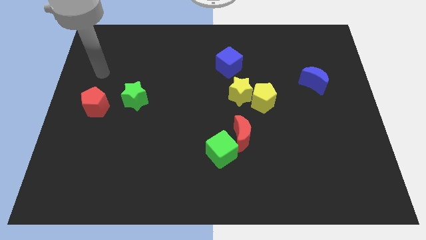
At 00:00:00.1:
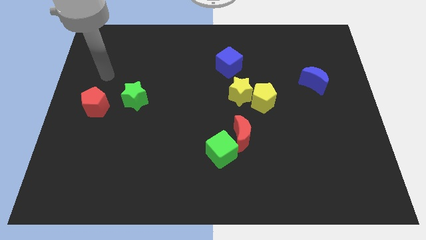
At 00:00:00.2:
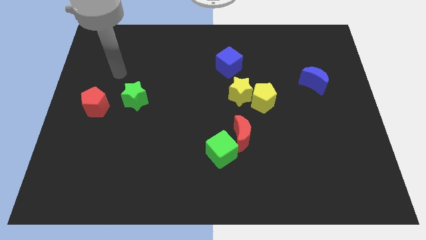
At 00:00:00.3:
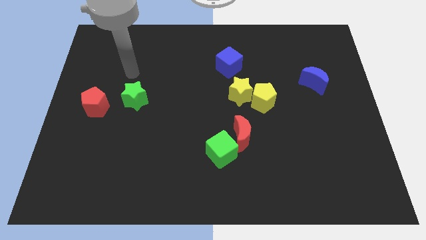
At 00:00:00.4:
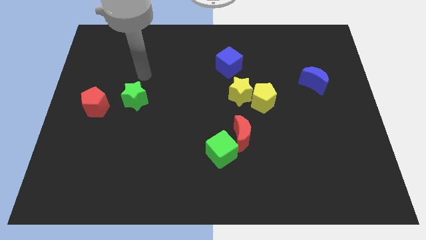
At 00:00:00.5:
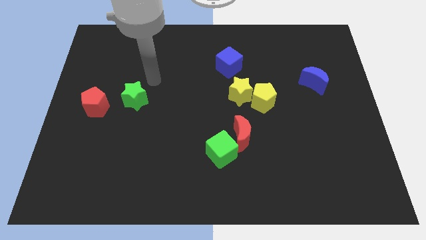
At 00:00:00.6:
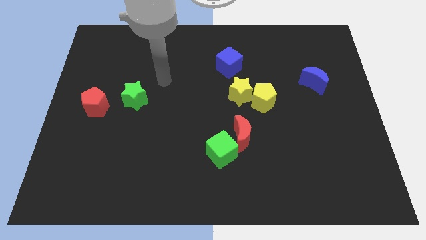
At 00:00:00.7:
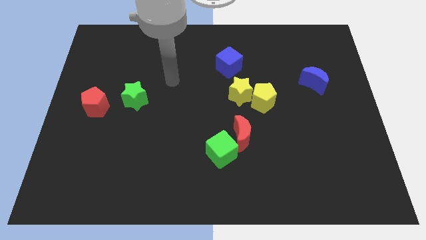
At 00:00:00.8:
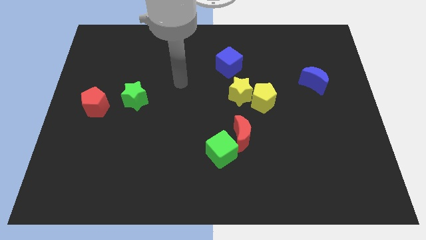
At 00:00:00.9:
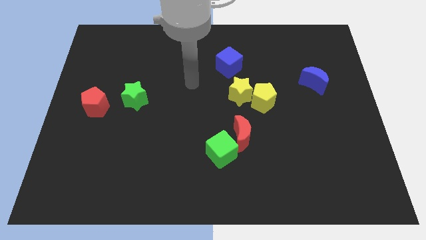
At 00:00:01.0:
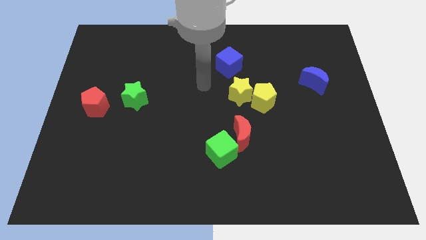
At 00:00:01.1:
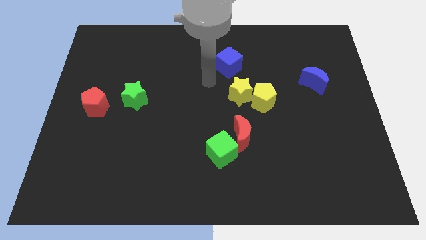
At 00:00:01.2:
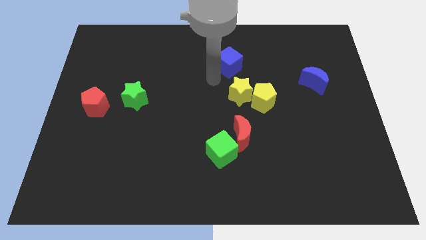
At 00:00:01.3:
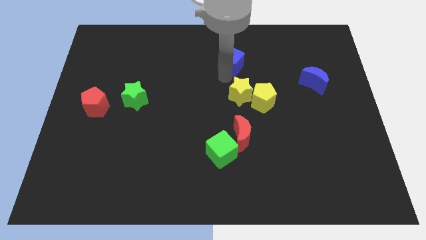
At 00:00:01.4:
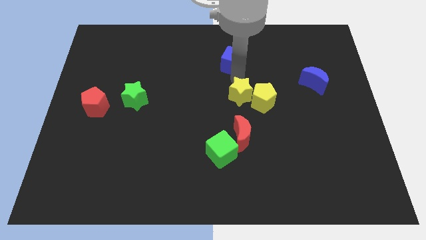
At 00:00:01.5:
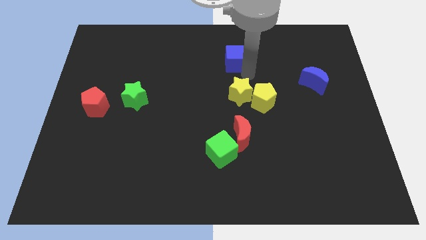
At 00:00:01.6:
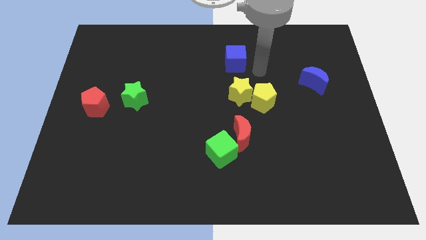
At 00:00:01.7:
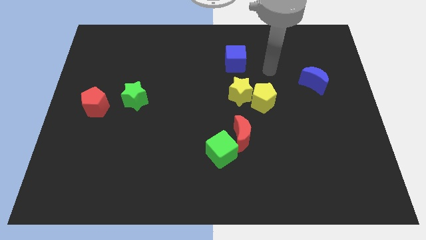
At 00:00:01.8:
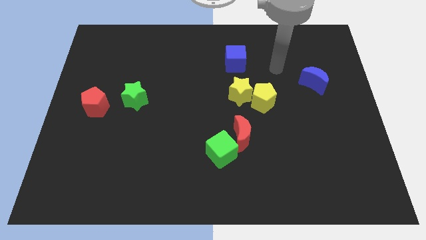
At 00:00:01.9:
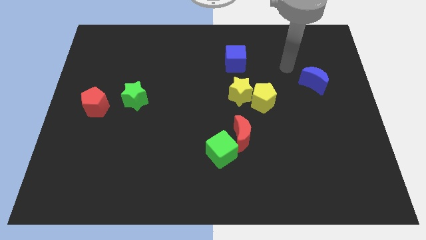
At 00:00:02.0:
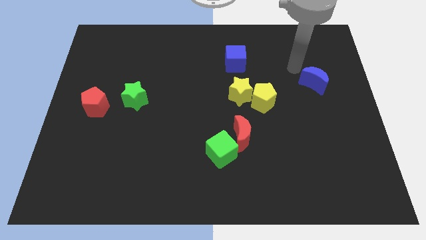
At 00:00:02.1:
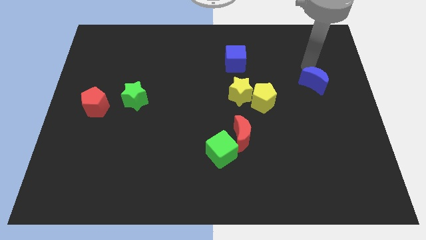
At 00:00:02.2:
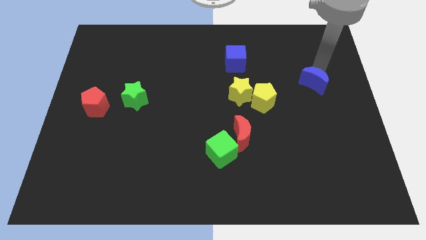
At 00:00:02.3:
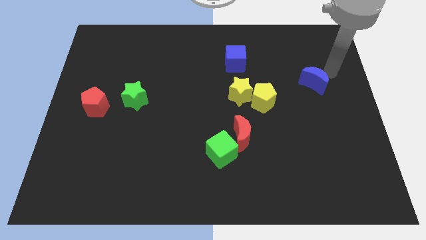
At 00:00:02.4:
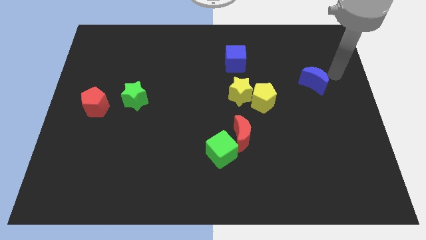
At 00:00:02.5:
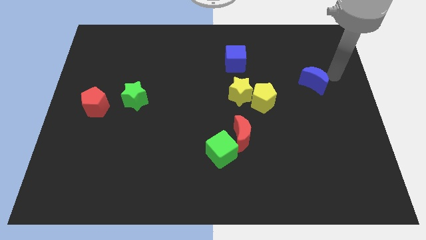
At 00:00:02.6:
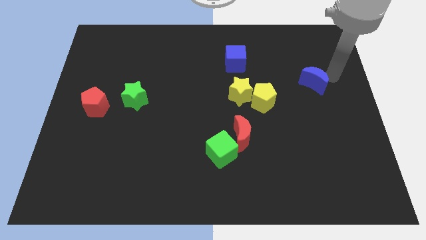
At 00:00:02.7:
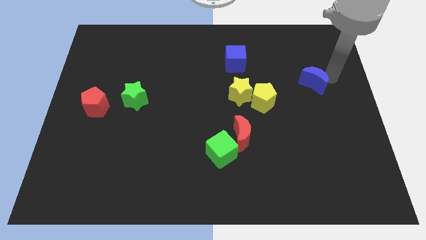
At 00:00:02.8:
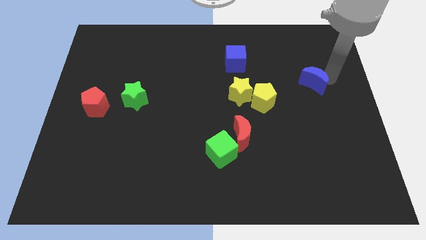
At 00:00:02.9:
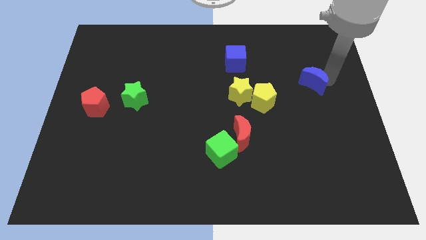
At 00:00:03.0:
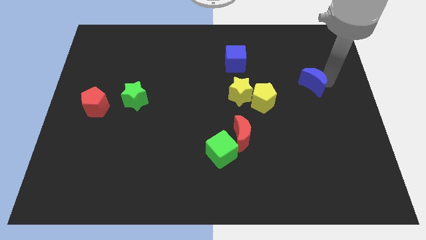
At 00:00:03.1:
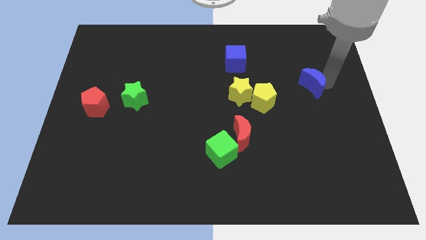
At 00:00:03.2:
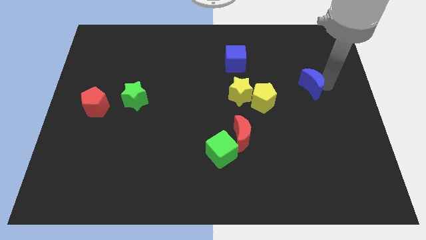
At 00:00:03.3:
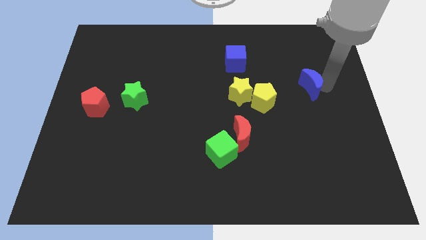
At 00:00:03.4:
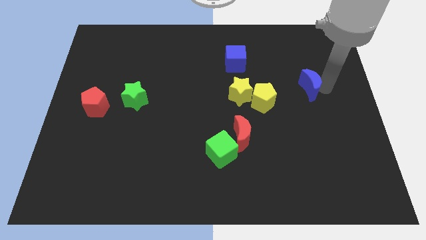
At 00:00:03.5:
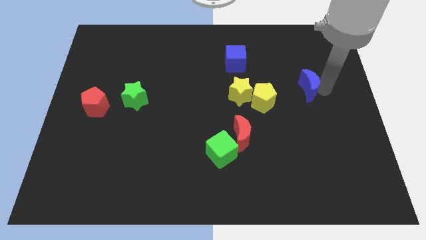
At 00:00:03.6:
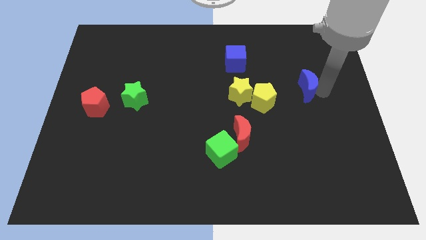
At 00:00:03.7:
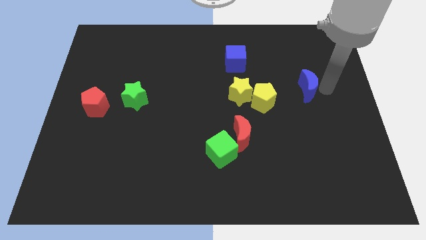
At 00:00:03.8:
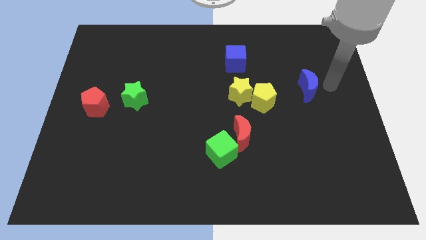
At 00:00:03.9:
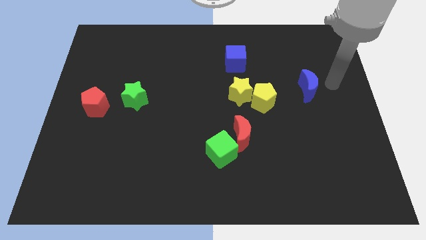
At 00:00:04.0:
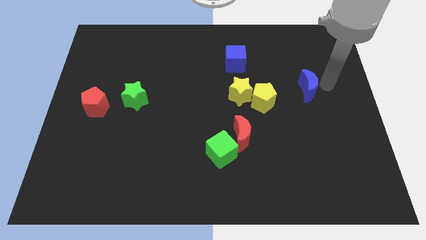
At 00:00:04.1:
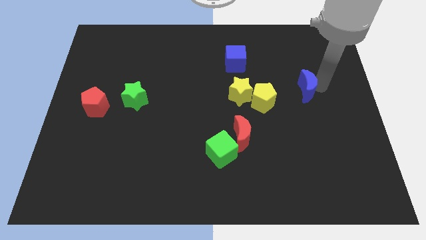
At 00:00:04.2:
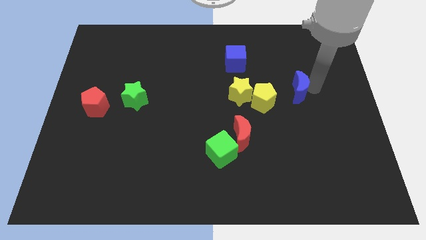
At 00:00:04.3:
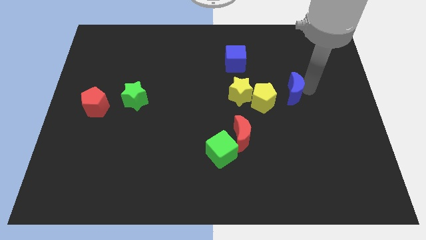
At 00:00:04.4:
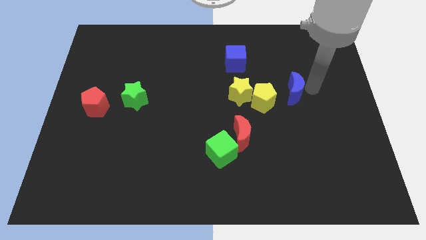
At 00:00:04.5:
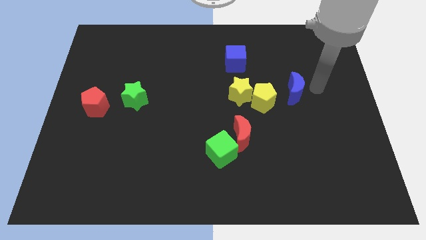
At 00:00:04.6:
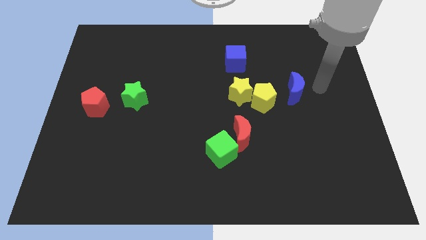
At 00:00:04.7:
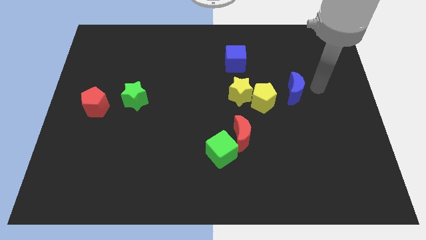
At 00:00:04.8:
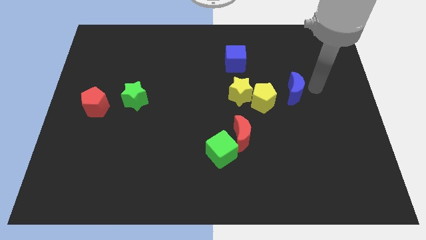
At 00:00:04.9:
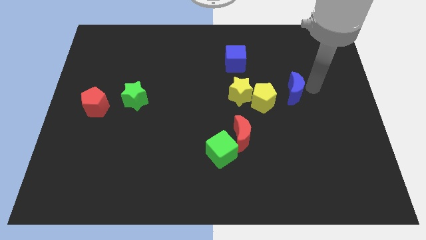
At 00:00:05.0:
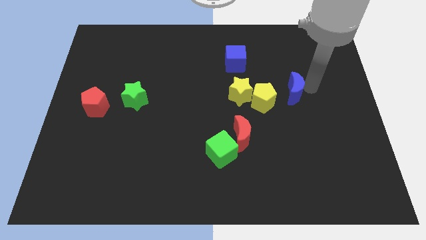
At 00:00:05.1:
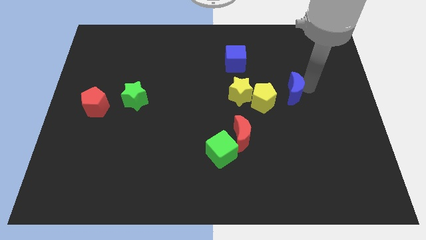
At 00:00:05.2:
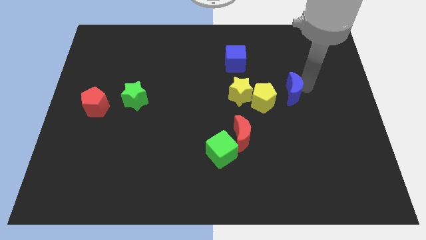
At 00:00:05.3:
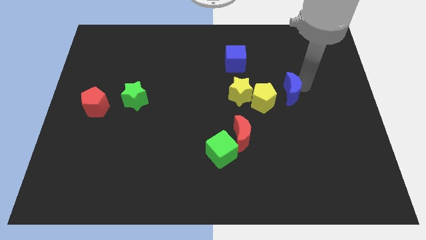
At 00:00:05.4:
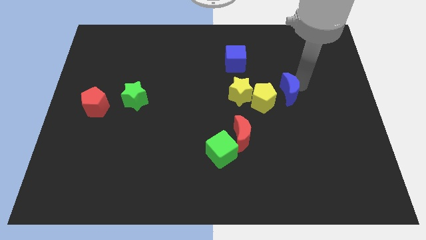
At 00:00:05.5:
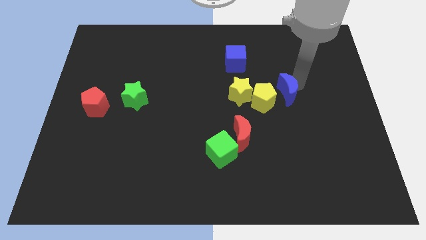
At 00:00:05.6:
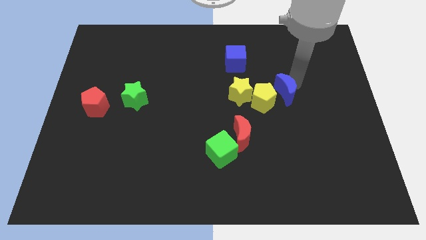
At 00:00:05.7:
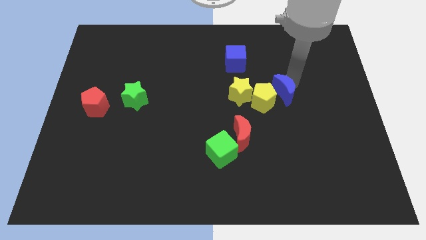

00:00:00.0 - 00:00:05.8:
put the blue moon close to the yellow pentagon

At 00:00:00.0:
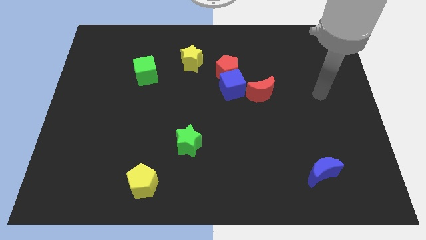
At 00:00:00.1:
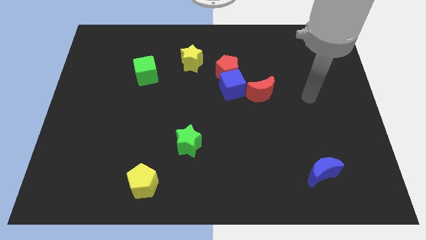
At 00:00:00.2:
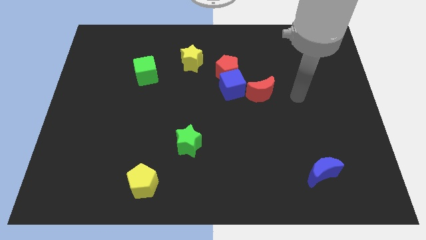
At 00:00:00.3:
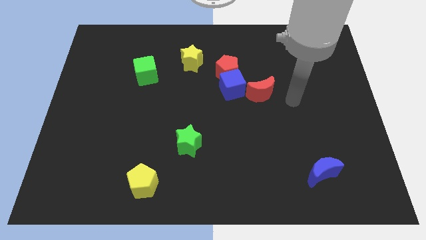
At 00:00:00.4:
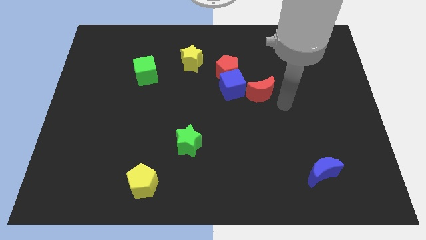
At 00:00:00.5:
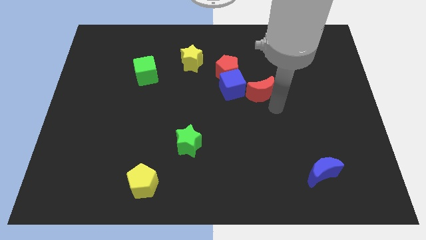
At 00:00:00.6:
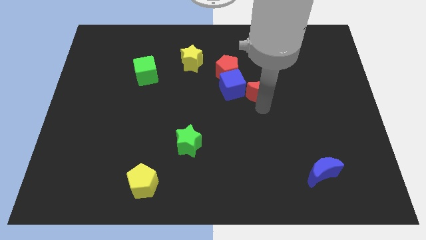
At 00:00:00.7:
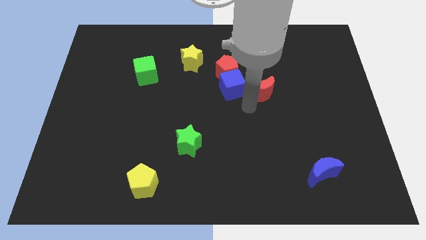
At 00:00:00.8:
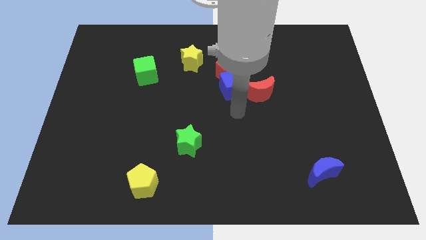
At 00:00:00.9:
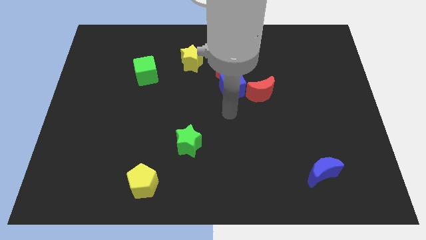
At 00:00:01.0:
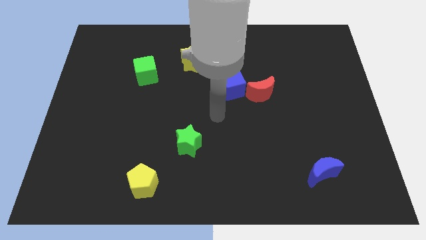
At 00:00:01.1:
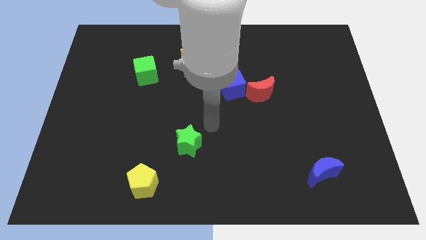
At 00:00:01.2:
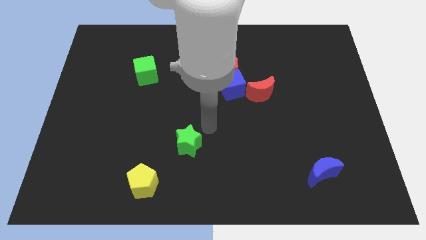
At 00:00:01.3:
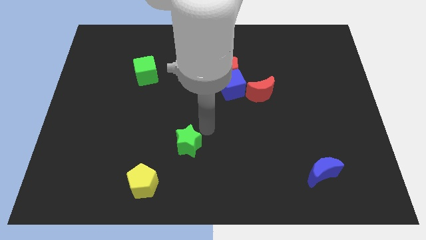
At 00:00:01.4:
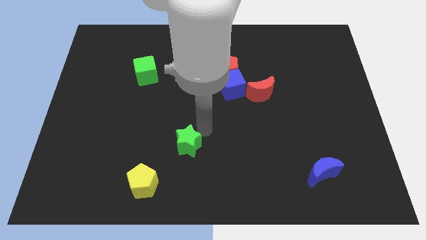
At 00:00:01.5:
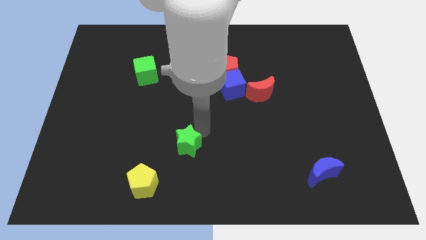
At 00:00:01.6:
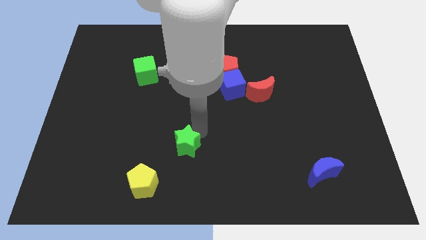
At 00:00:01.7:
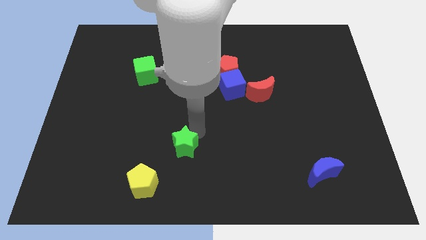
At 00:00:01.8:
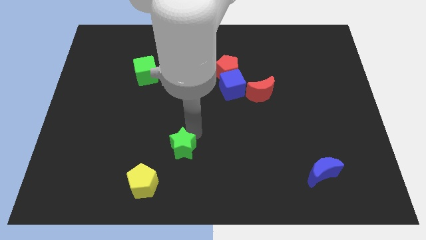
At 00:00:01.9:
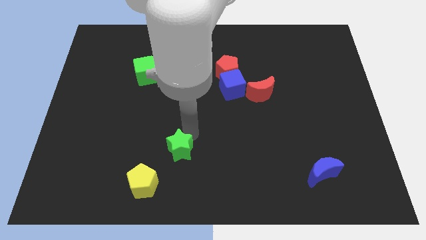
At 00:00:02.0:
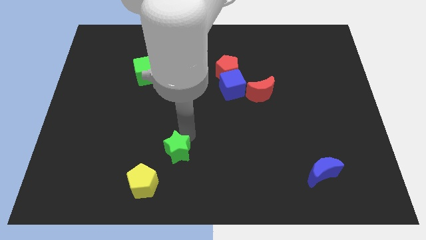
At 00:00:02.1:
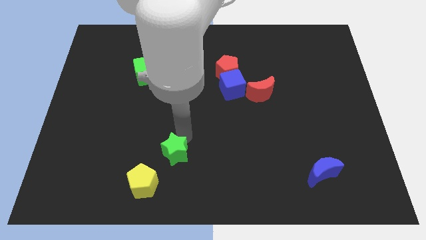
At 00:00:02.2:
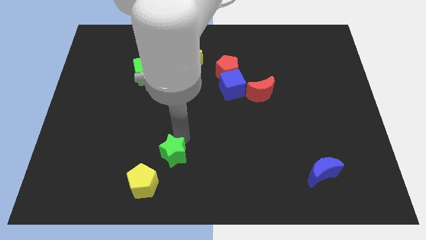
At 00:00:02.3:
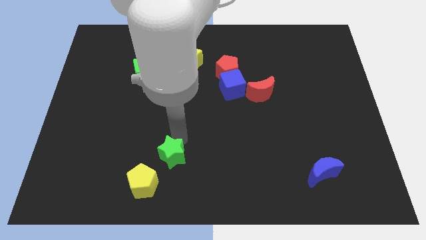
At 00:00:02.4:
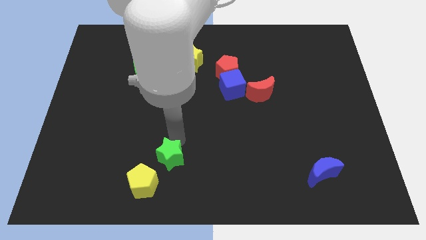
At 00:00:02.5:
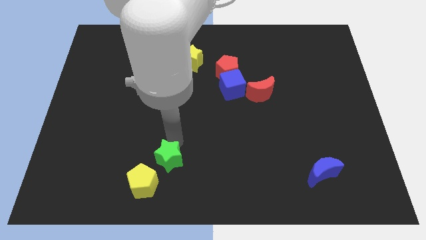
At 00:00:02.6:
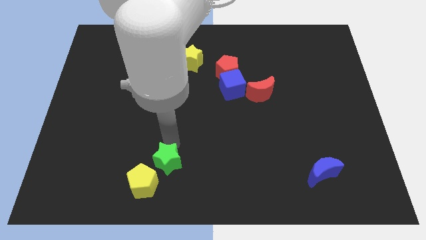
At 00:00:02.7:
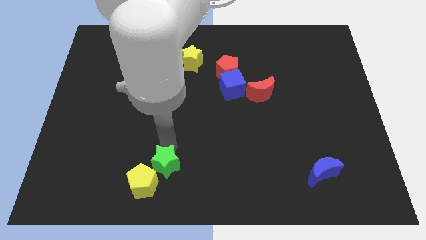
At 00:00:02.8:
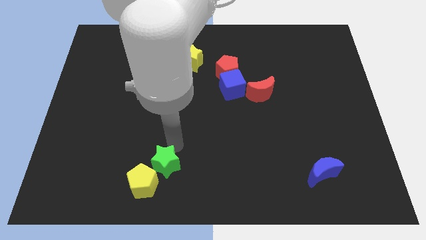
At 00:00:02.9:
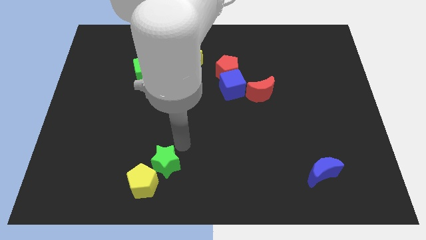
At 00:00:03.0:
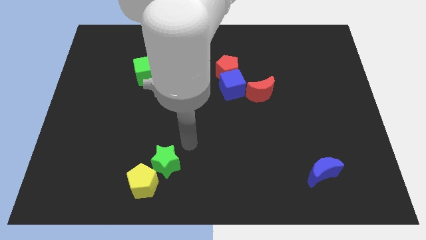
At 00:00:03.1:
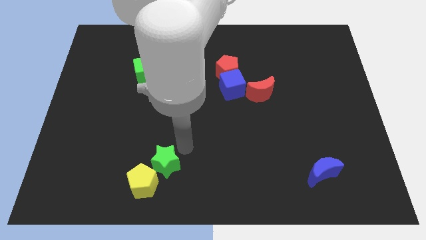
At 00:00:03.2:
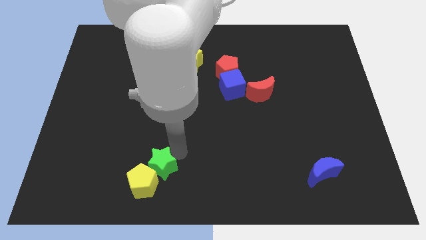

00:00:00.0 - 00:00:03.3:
push the green star to the yellow pentagon
